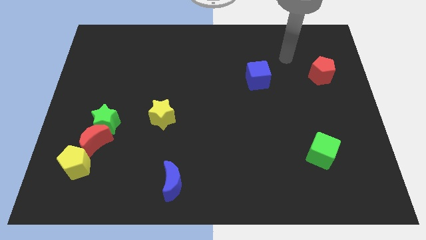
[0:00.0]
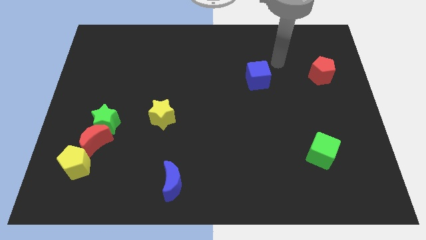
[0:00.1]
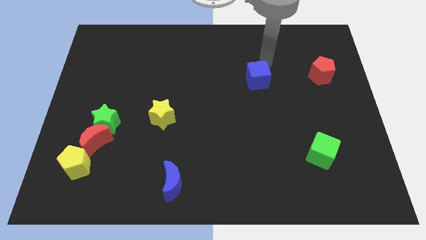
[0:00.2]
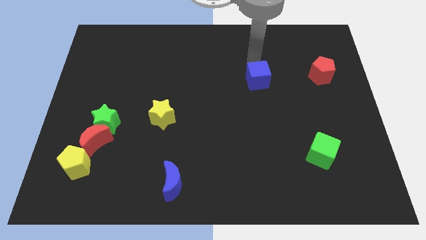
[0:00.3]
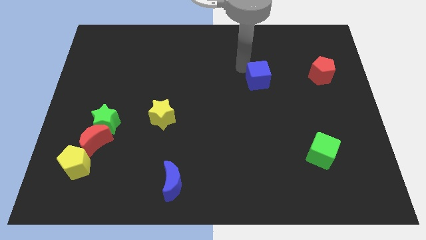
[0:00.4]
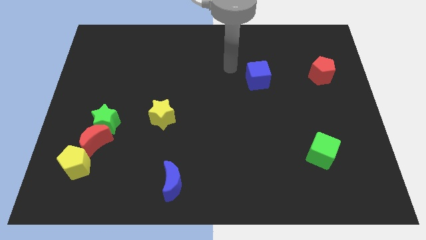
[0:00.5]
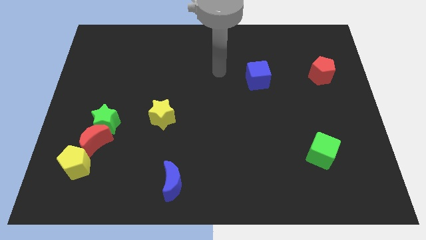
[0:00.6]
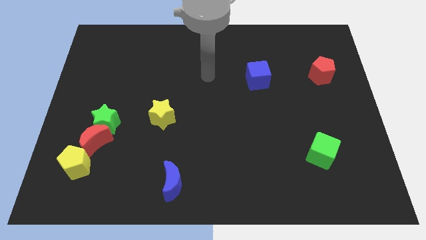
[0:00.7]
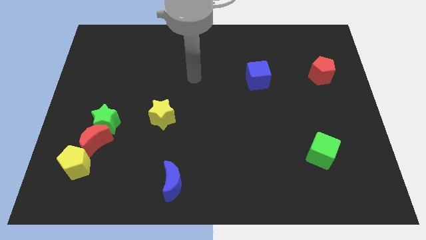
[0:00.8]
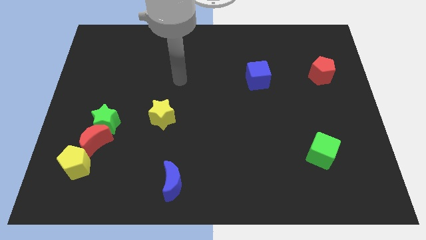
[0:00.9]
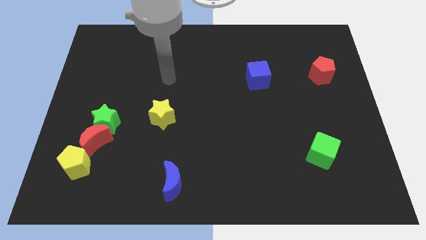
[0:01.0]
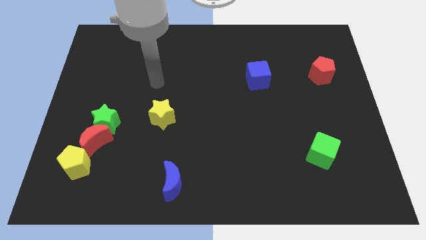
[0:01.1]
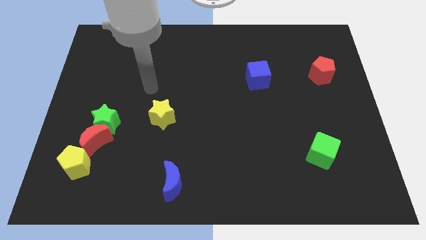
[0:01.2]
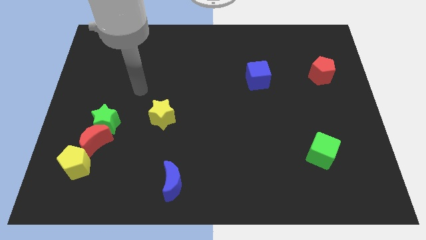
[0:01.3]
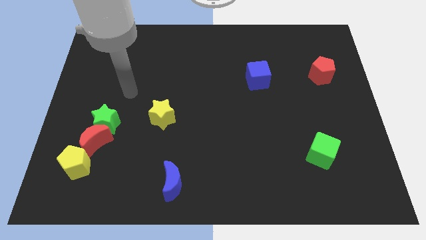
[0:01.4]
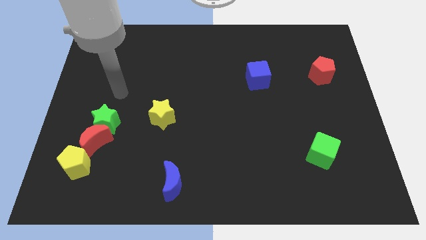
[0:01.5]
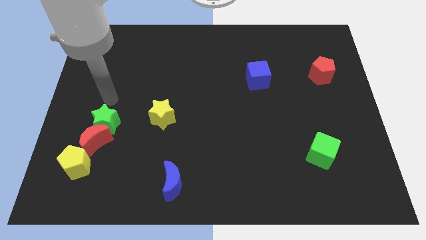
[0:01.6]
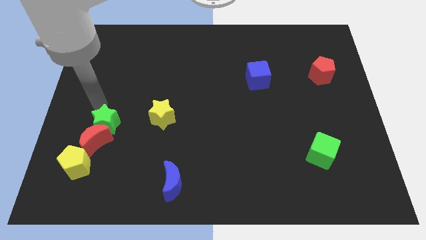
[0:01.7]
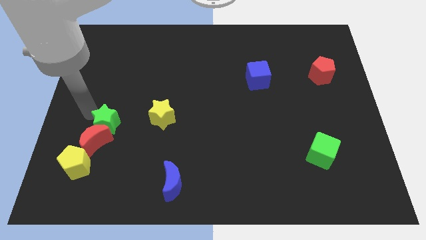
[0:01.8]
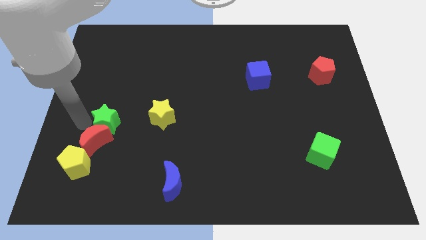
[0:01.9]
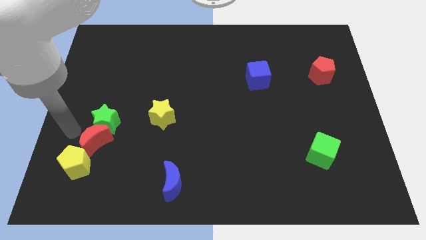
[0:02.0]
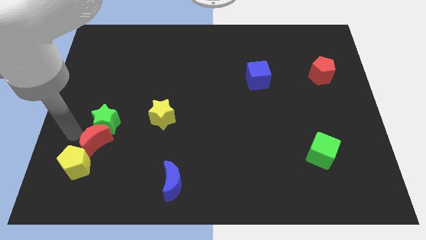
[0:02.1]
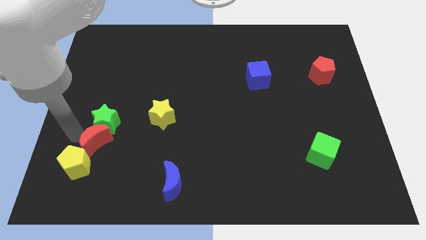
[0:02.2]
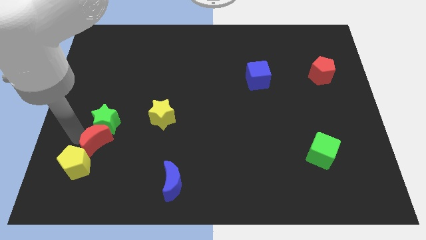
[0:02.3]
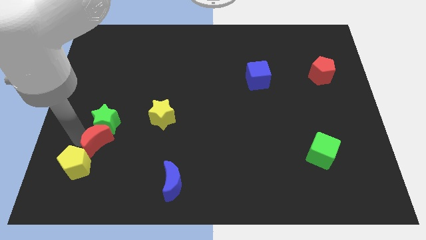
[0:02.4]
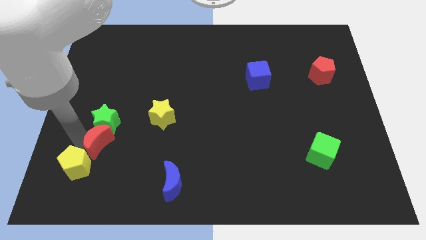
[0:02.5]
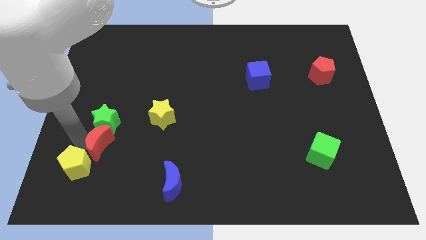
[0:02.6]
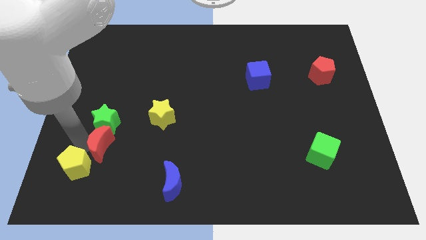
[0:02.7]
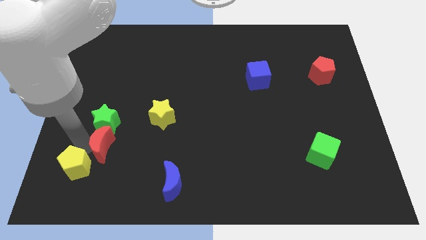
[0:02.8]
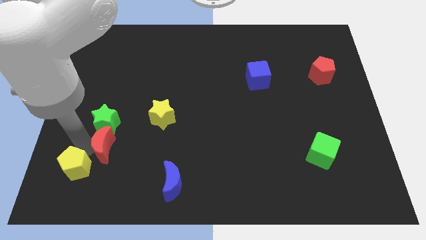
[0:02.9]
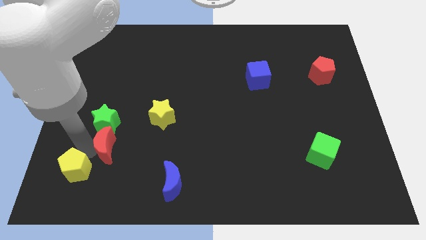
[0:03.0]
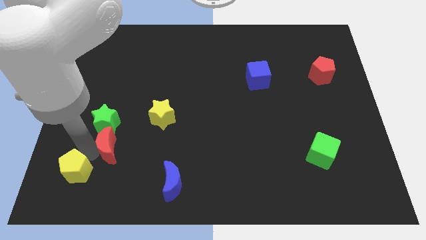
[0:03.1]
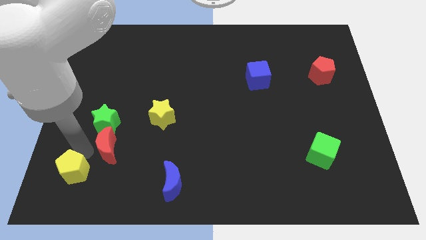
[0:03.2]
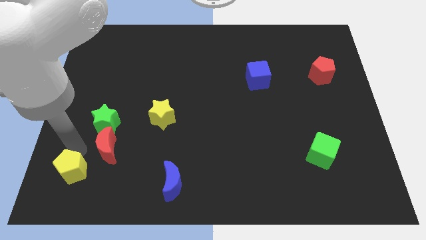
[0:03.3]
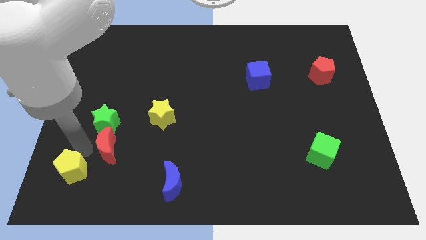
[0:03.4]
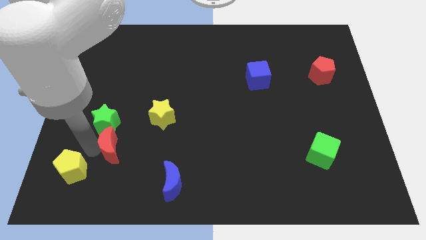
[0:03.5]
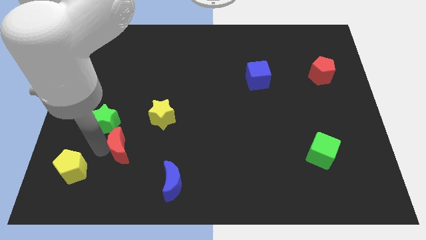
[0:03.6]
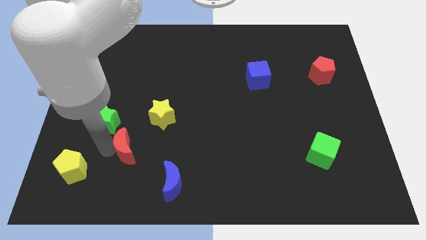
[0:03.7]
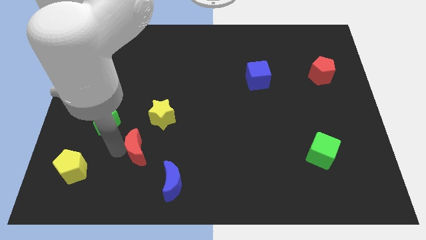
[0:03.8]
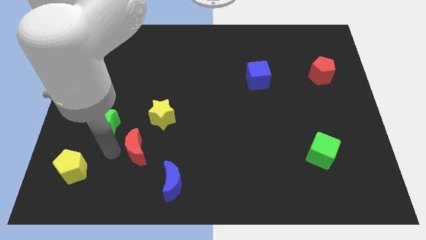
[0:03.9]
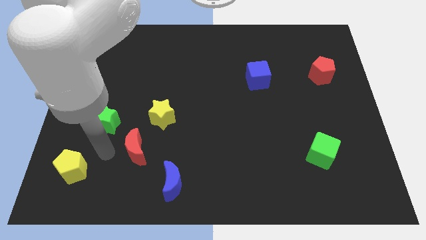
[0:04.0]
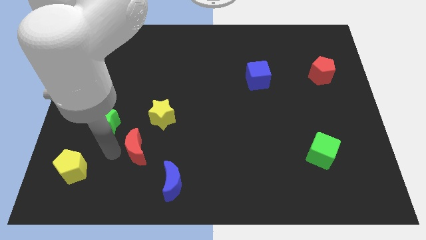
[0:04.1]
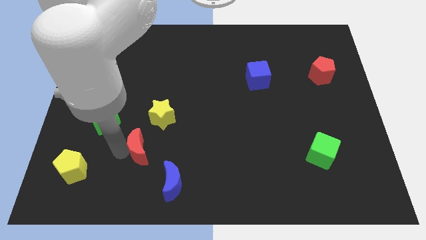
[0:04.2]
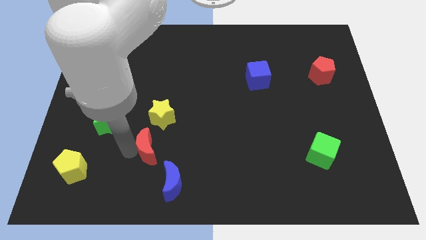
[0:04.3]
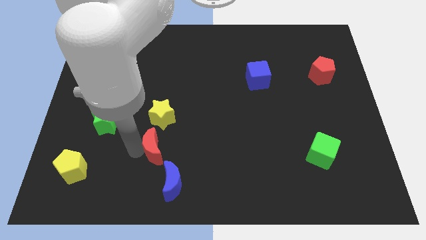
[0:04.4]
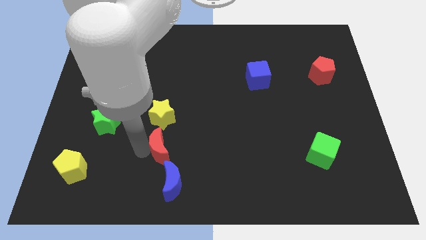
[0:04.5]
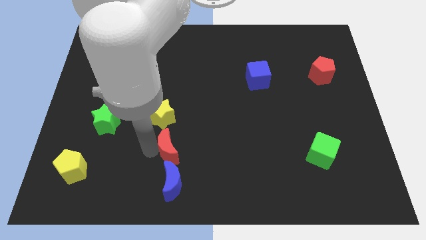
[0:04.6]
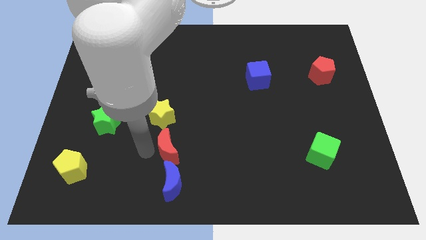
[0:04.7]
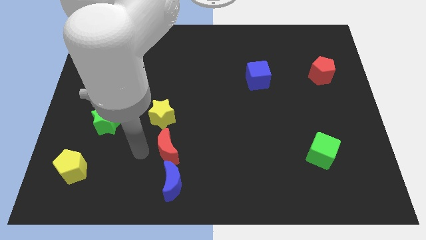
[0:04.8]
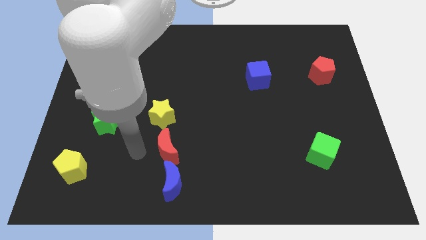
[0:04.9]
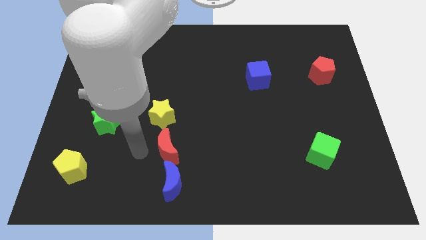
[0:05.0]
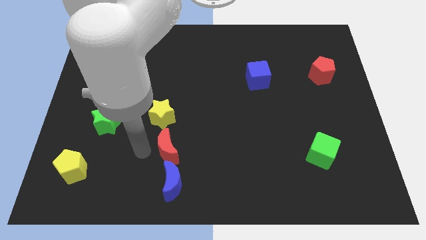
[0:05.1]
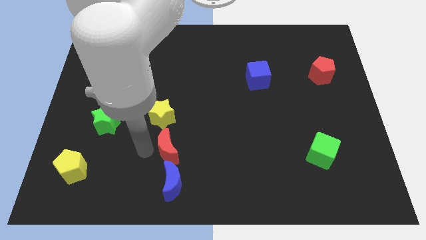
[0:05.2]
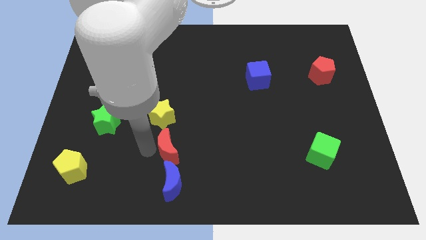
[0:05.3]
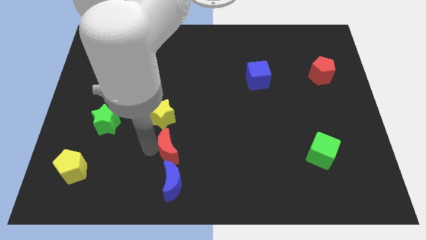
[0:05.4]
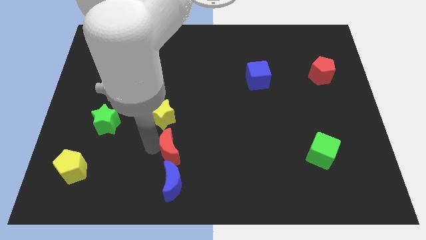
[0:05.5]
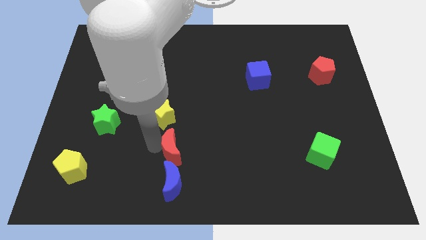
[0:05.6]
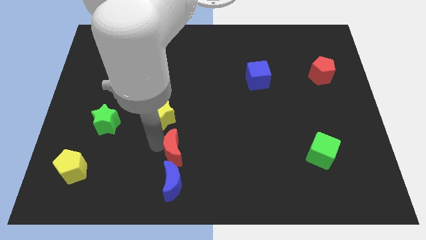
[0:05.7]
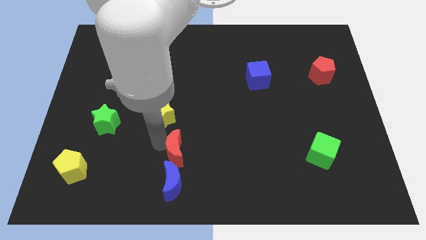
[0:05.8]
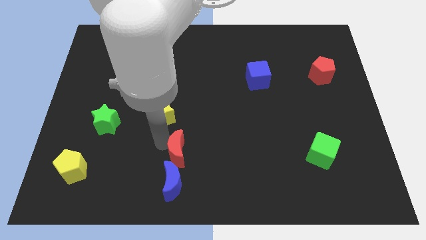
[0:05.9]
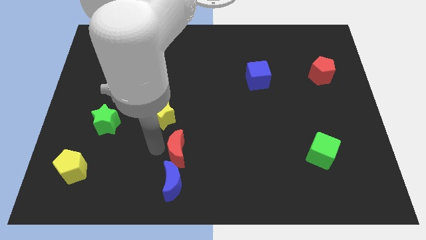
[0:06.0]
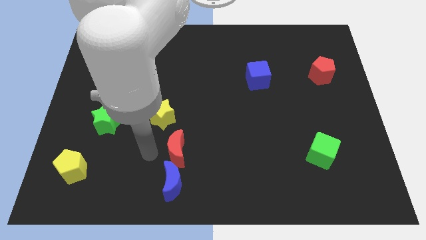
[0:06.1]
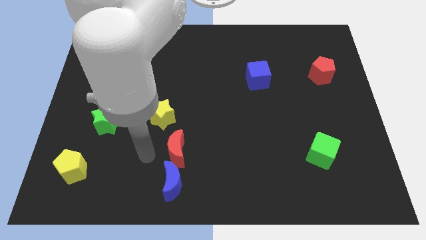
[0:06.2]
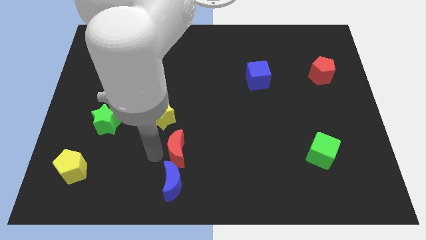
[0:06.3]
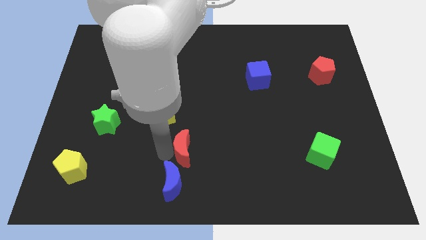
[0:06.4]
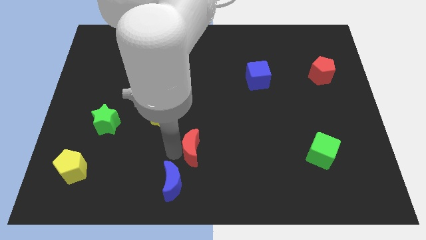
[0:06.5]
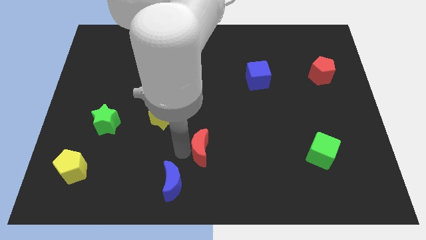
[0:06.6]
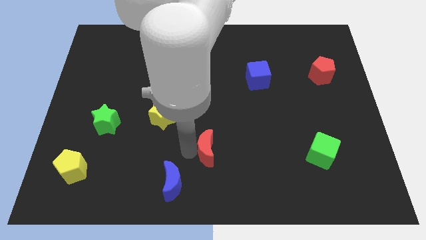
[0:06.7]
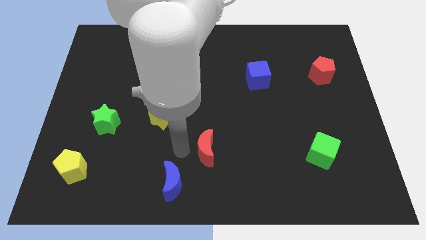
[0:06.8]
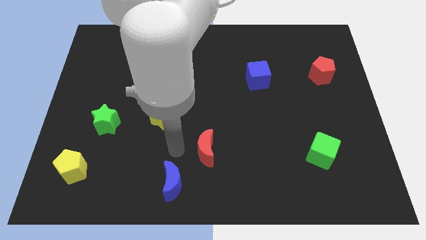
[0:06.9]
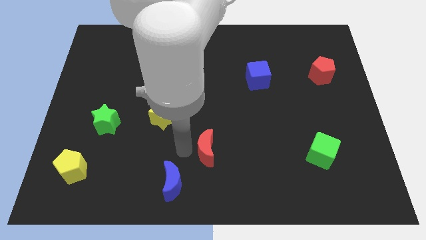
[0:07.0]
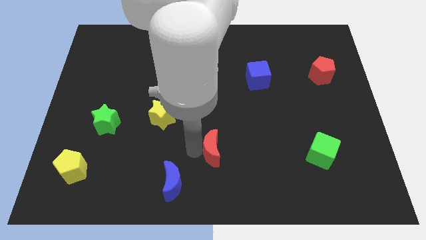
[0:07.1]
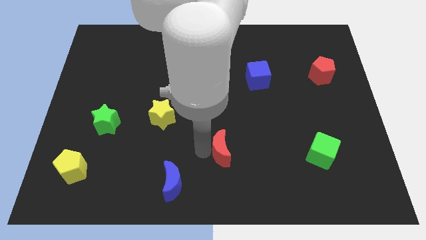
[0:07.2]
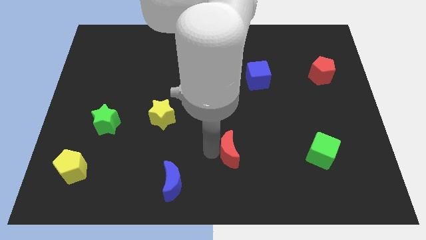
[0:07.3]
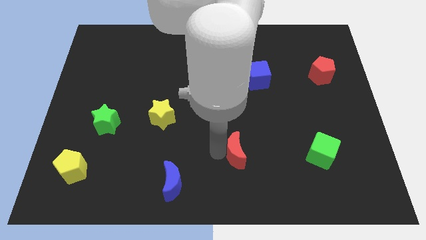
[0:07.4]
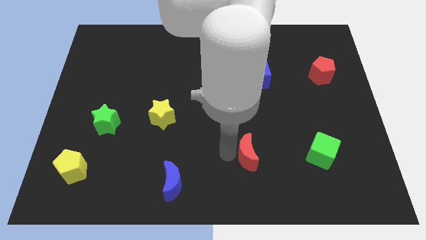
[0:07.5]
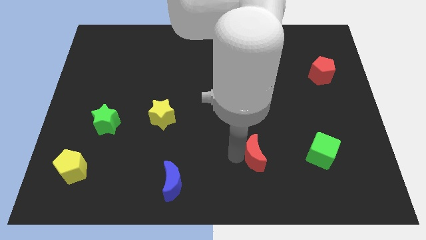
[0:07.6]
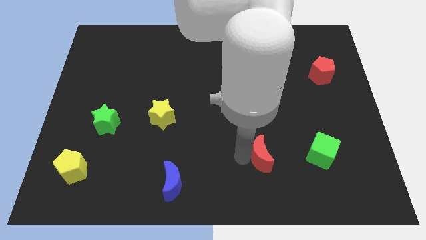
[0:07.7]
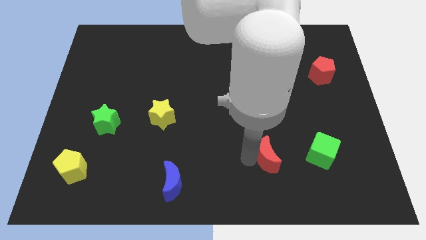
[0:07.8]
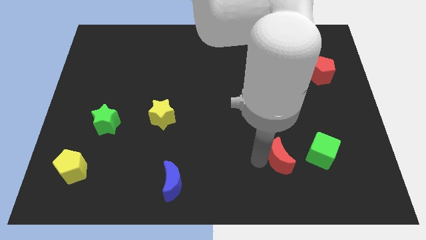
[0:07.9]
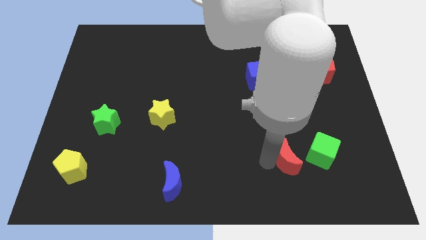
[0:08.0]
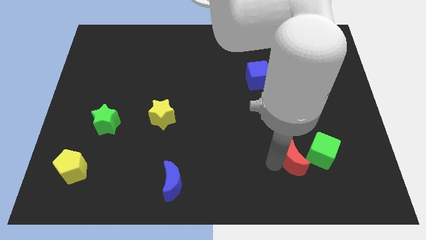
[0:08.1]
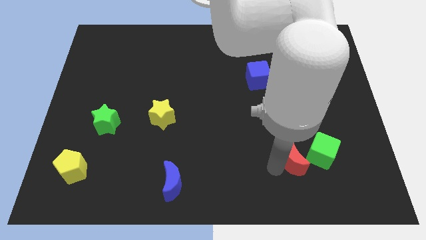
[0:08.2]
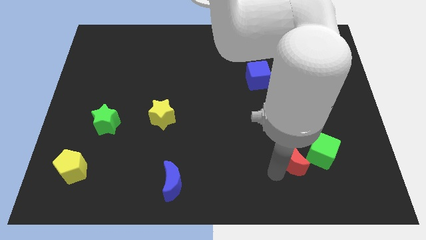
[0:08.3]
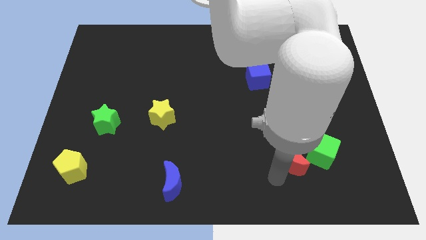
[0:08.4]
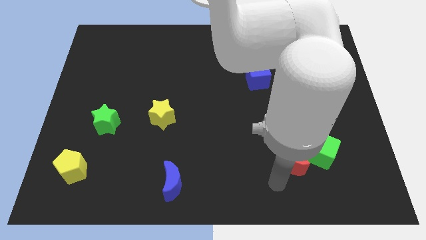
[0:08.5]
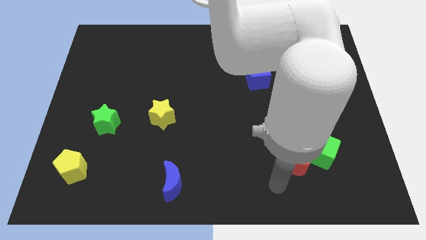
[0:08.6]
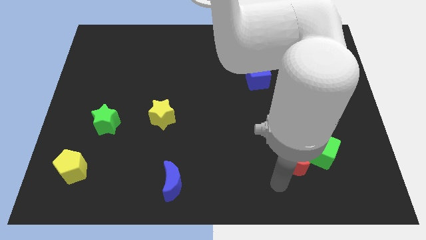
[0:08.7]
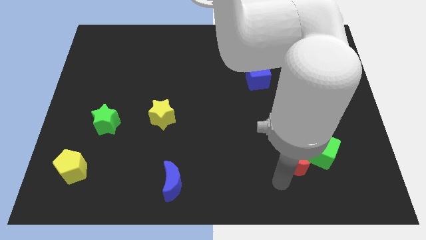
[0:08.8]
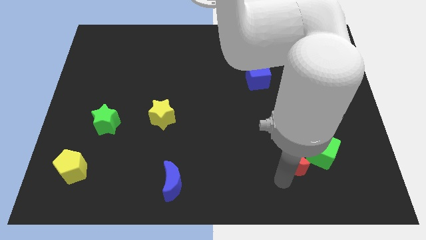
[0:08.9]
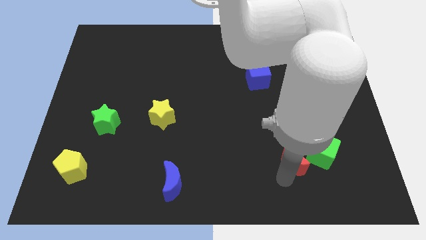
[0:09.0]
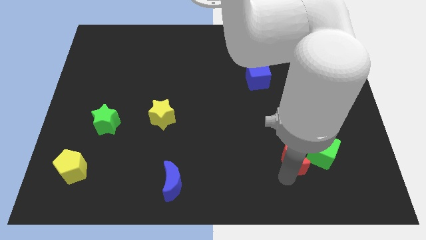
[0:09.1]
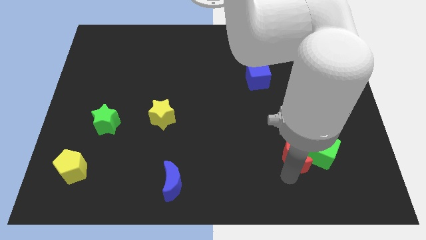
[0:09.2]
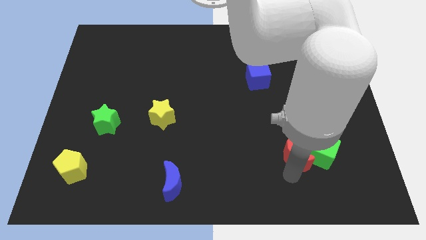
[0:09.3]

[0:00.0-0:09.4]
move the red moon to the green cube
